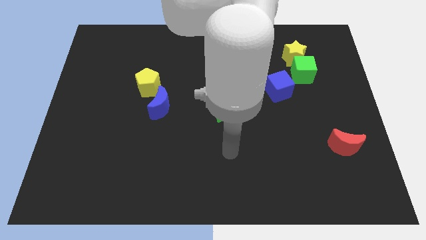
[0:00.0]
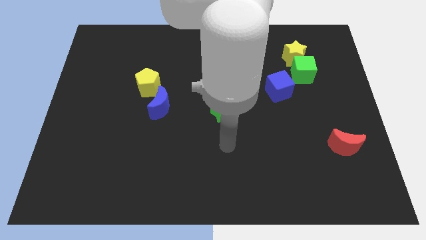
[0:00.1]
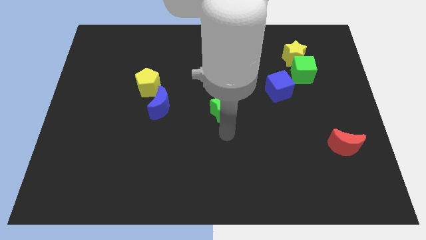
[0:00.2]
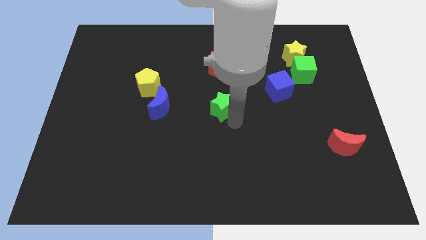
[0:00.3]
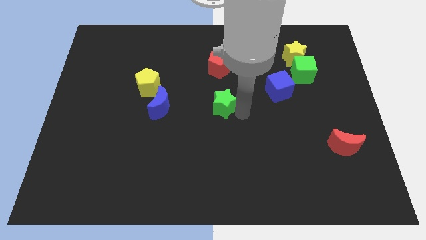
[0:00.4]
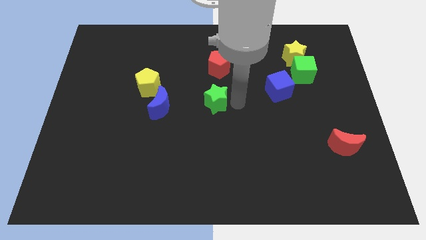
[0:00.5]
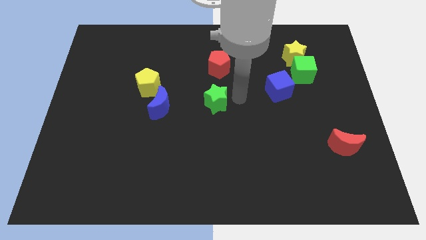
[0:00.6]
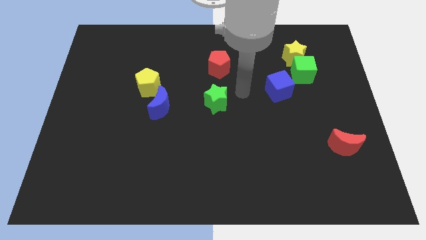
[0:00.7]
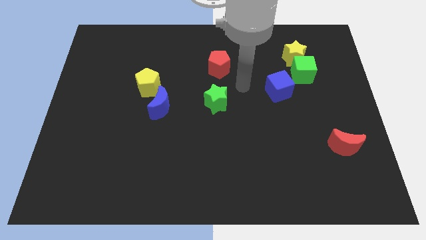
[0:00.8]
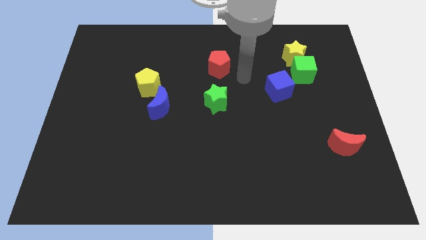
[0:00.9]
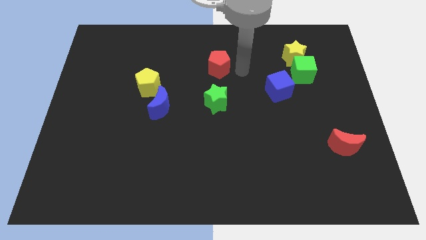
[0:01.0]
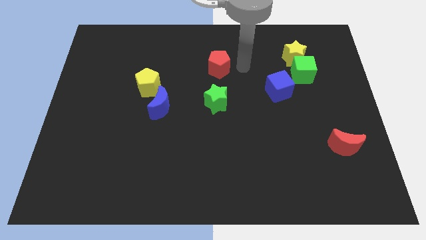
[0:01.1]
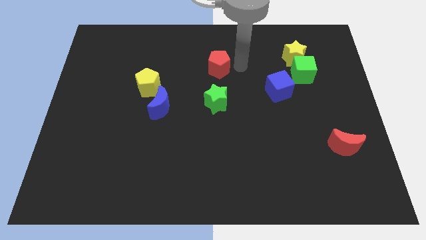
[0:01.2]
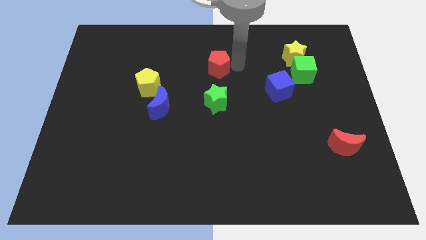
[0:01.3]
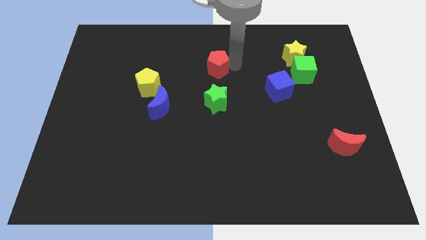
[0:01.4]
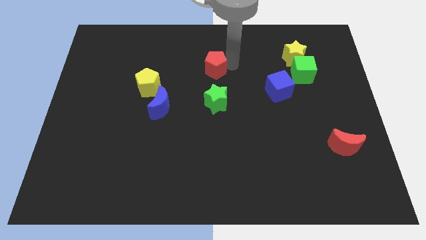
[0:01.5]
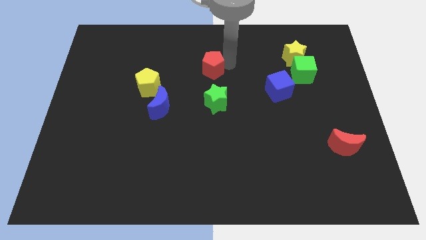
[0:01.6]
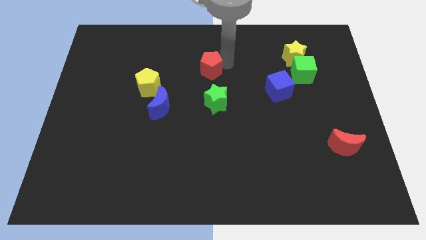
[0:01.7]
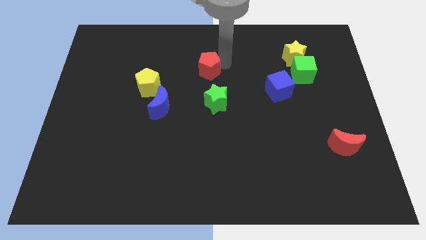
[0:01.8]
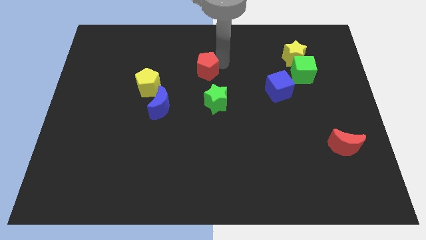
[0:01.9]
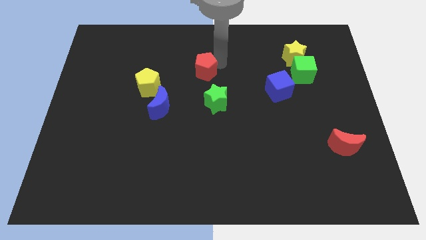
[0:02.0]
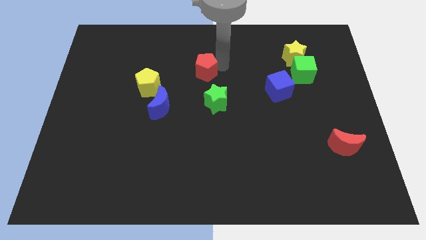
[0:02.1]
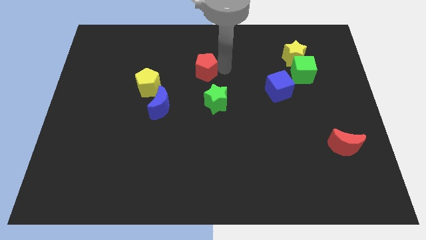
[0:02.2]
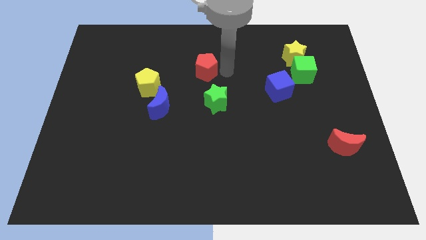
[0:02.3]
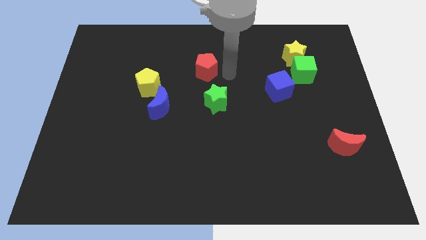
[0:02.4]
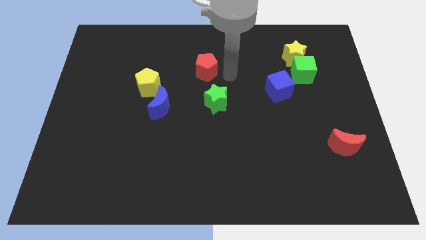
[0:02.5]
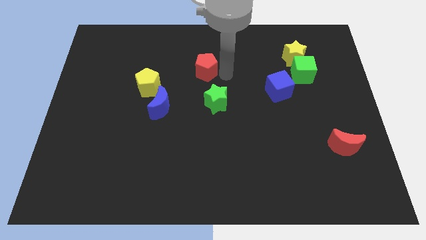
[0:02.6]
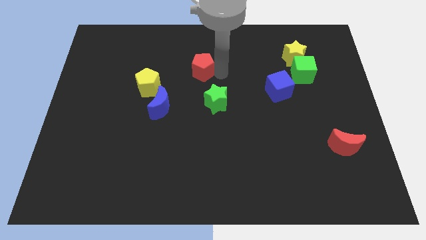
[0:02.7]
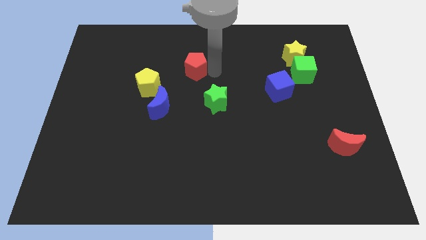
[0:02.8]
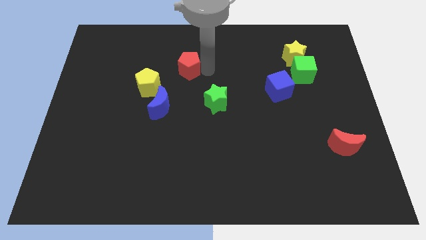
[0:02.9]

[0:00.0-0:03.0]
slide the red pentagon a little bit left

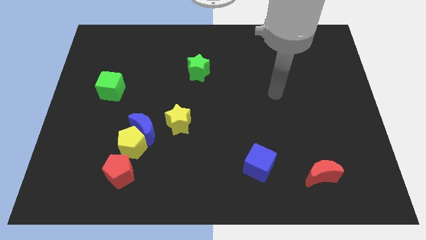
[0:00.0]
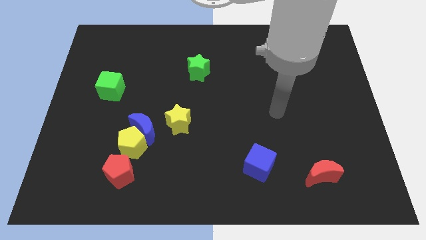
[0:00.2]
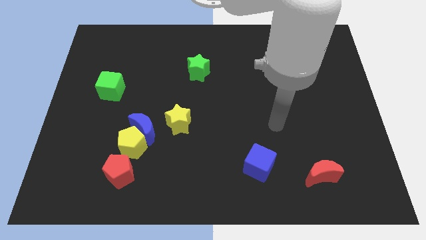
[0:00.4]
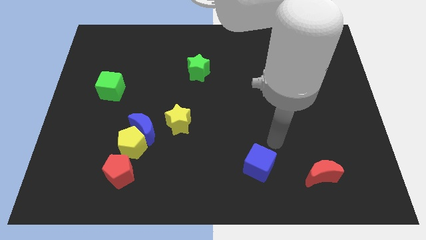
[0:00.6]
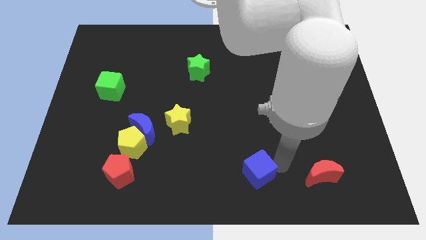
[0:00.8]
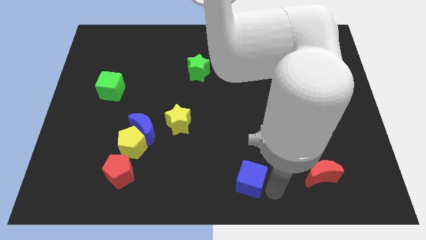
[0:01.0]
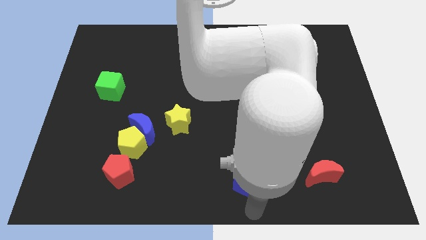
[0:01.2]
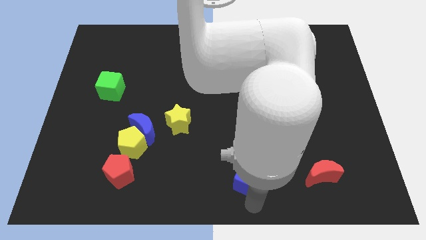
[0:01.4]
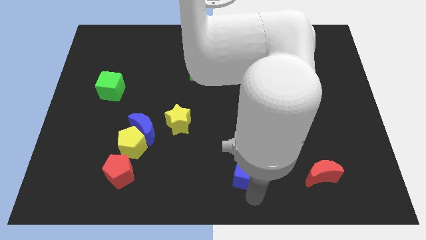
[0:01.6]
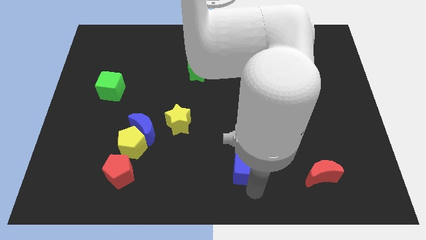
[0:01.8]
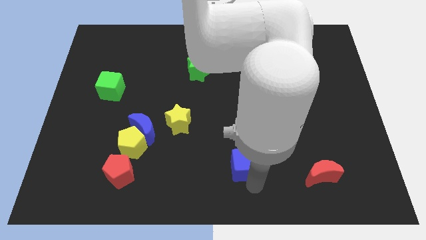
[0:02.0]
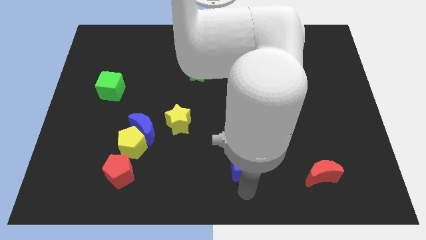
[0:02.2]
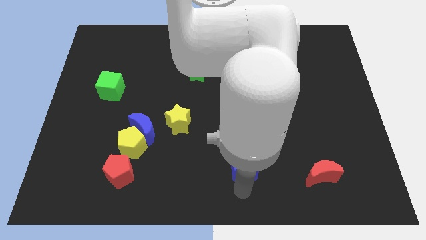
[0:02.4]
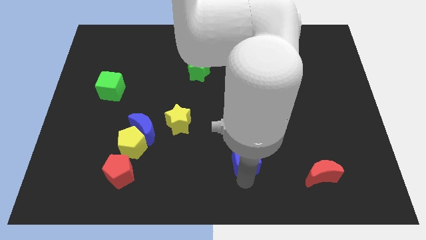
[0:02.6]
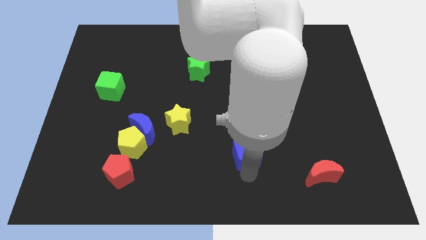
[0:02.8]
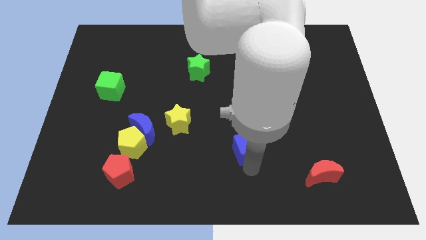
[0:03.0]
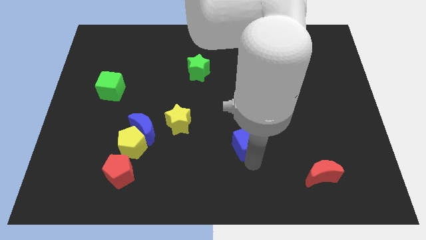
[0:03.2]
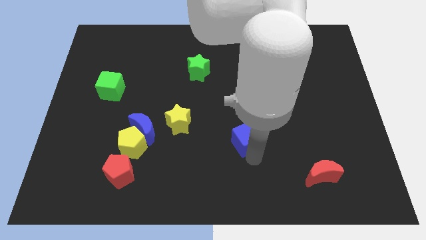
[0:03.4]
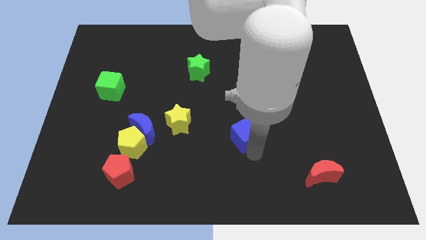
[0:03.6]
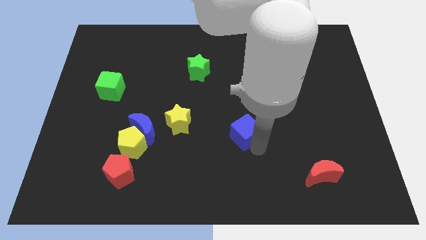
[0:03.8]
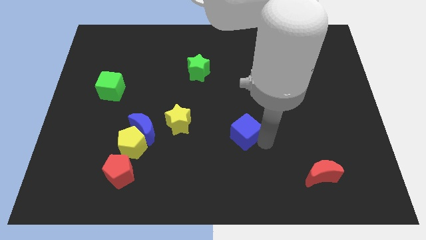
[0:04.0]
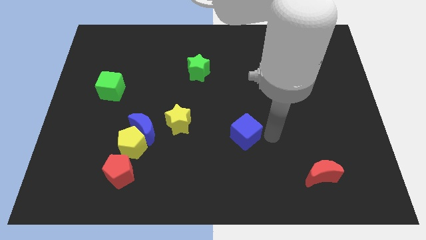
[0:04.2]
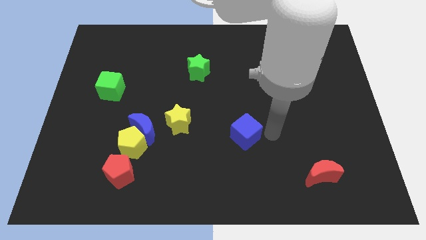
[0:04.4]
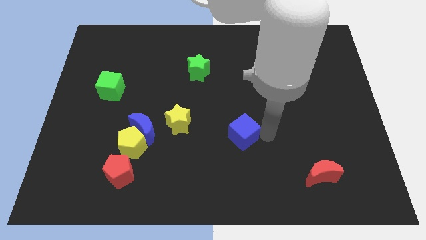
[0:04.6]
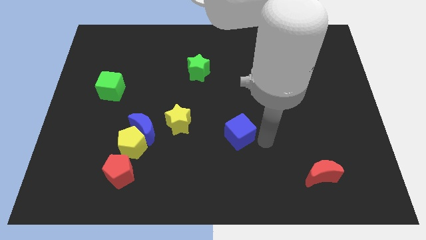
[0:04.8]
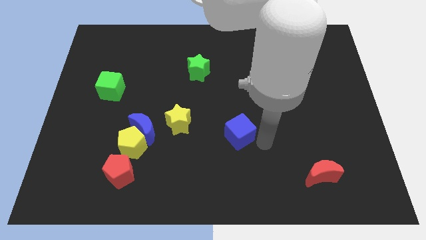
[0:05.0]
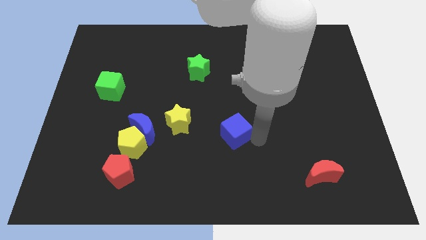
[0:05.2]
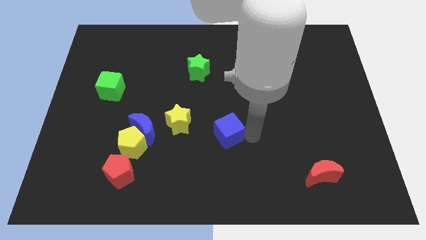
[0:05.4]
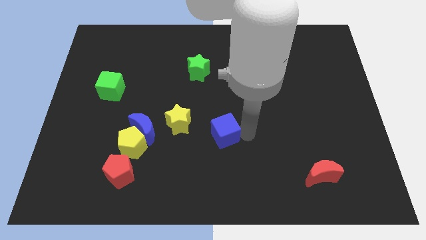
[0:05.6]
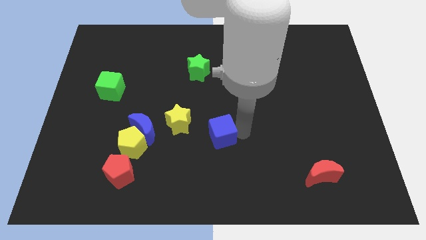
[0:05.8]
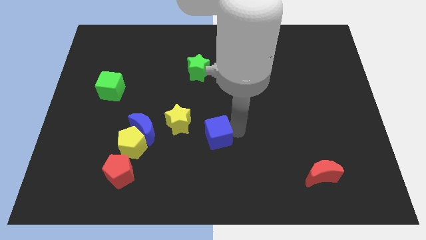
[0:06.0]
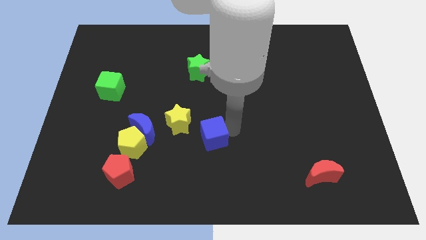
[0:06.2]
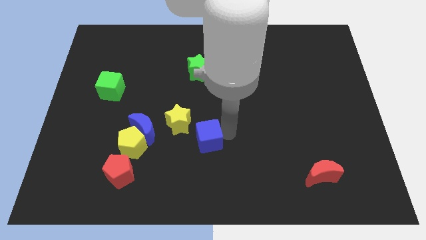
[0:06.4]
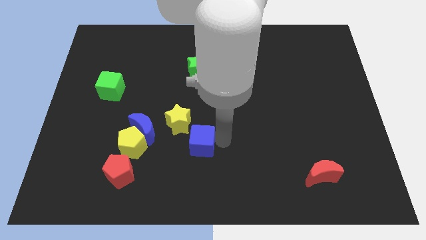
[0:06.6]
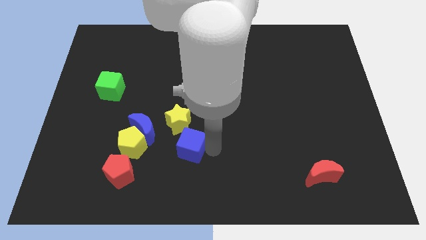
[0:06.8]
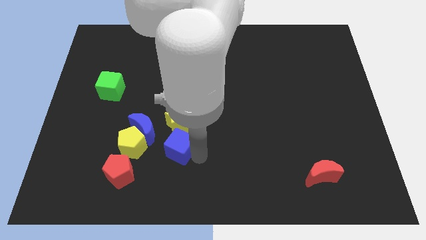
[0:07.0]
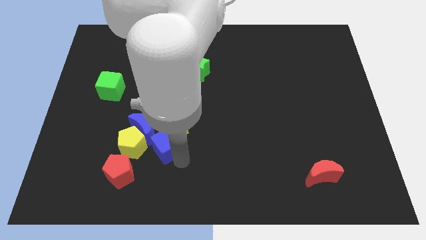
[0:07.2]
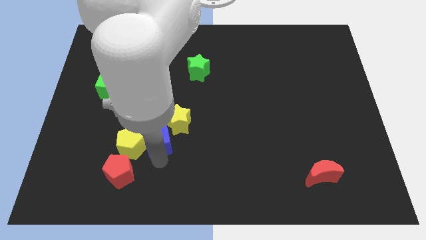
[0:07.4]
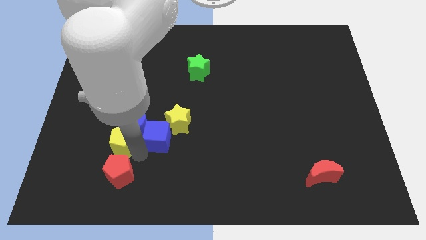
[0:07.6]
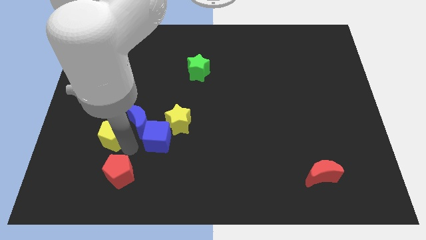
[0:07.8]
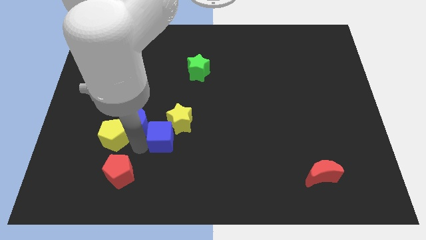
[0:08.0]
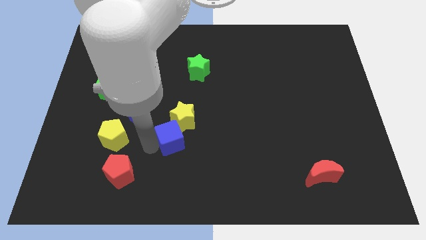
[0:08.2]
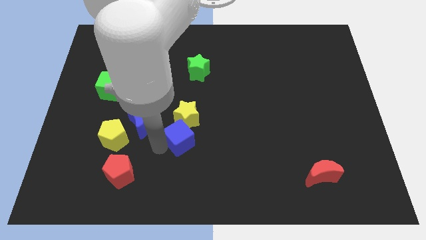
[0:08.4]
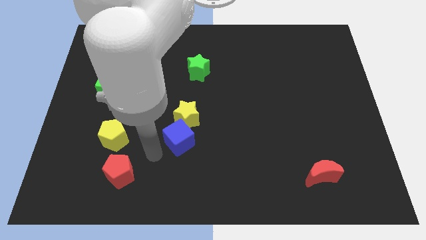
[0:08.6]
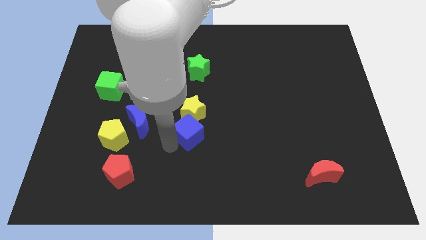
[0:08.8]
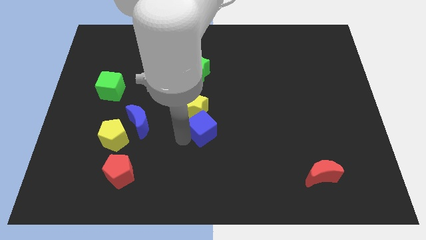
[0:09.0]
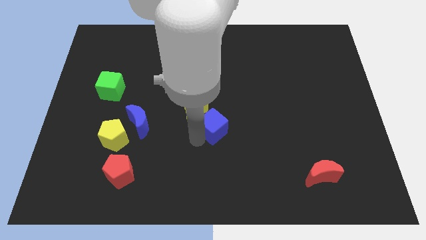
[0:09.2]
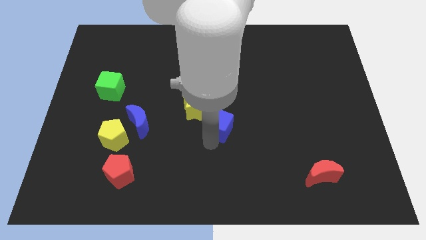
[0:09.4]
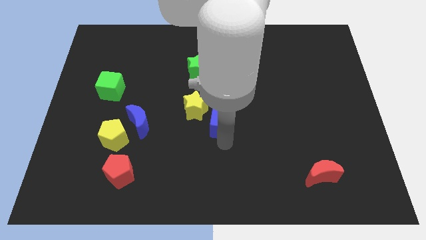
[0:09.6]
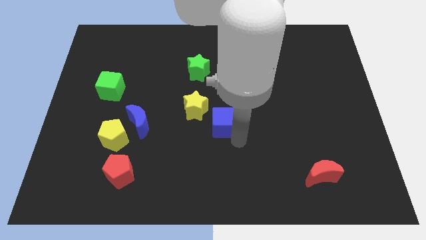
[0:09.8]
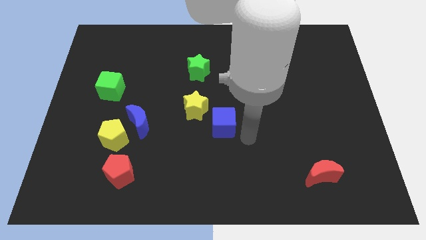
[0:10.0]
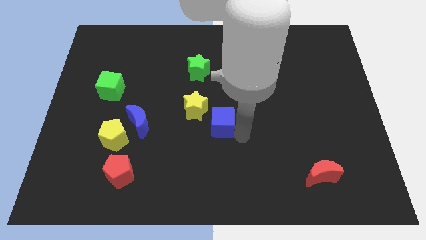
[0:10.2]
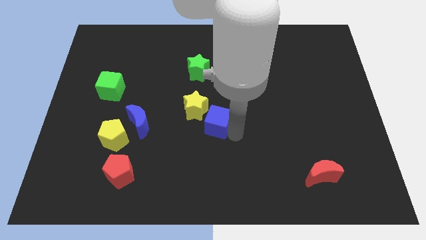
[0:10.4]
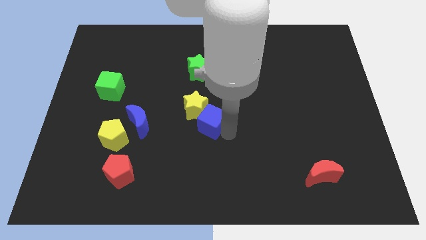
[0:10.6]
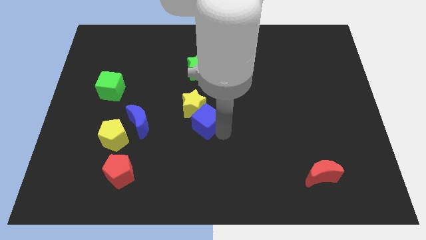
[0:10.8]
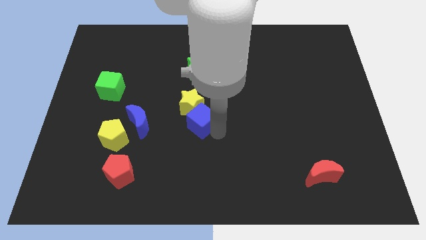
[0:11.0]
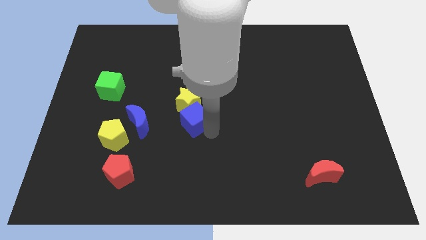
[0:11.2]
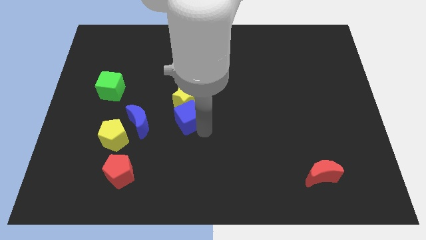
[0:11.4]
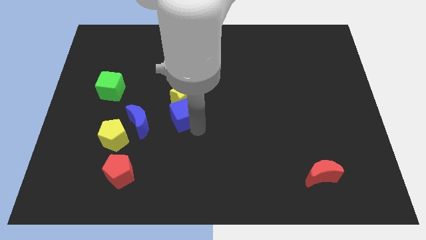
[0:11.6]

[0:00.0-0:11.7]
slide the blue cube up and left diagonally
